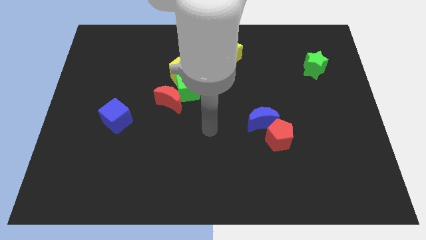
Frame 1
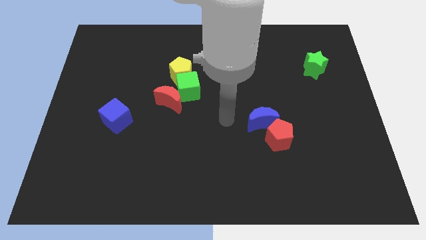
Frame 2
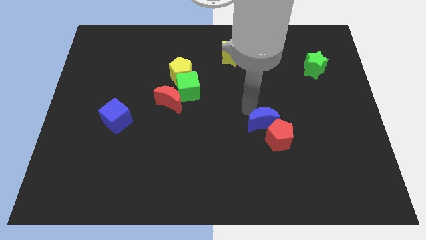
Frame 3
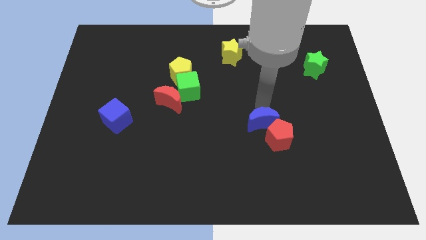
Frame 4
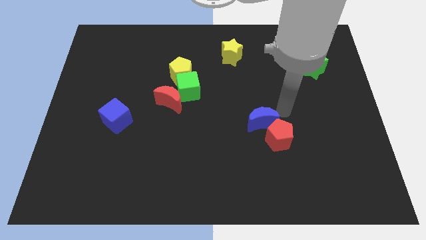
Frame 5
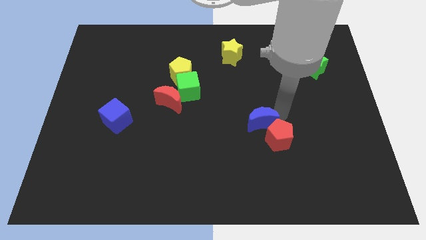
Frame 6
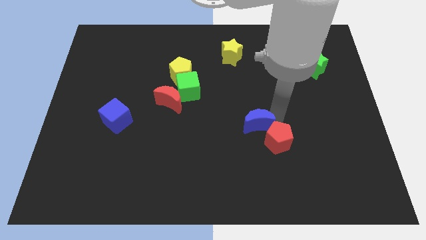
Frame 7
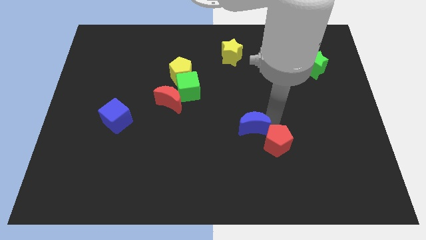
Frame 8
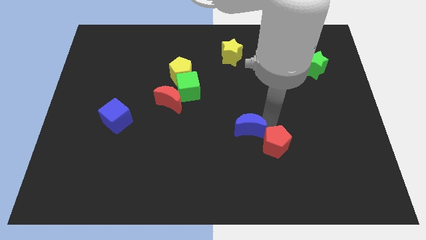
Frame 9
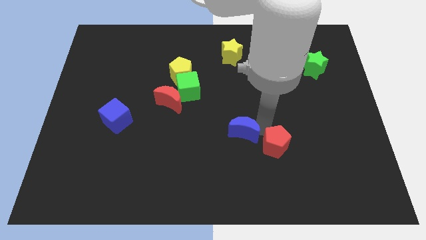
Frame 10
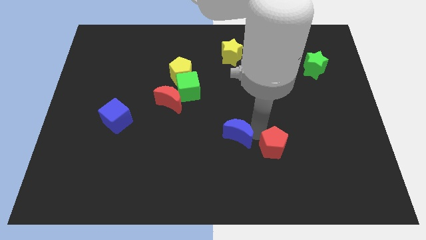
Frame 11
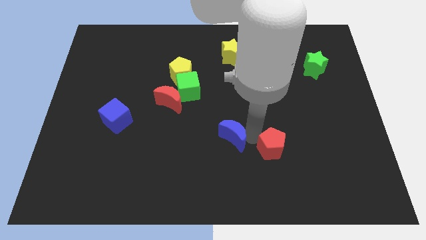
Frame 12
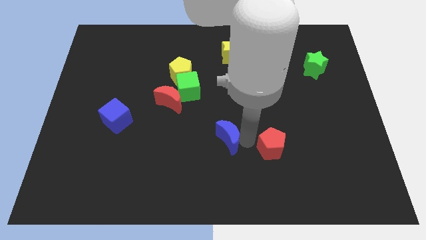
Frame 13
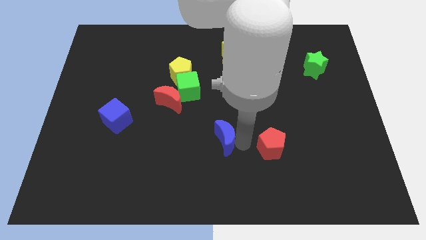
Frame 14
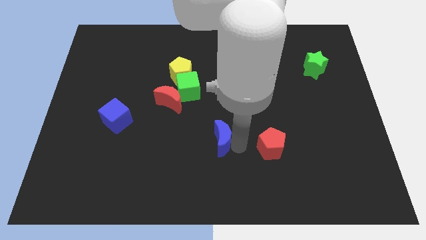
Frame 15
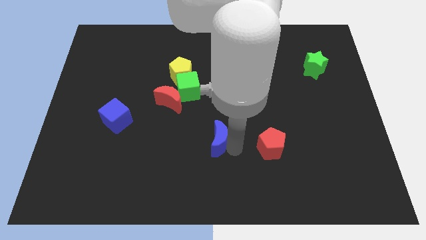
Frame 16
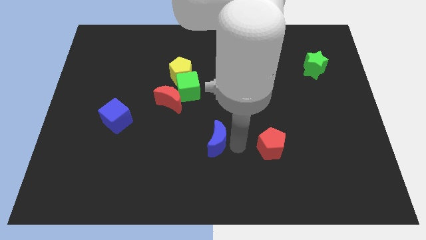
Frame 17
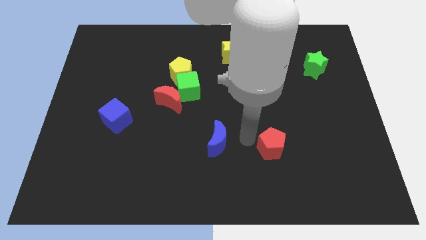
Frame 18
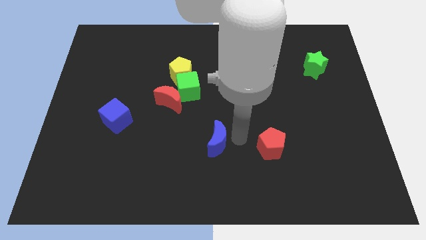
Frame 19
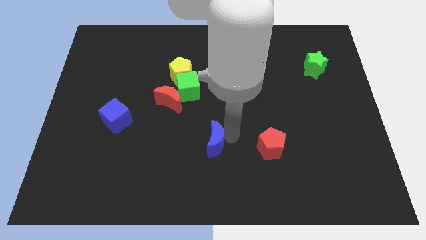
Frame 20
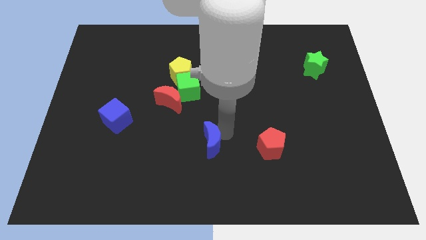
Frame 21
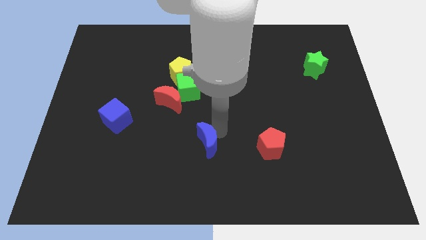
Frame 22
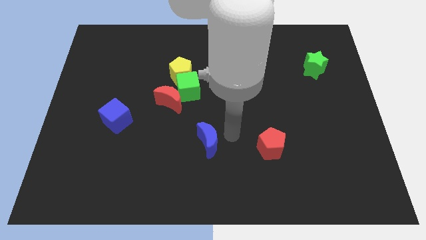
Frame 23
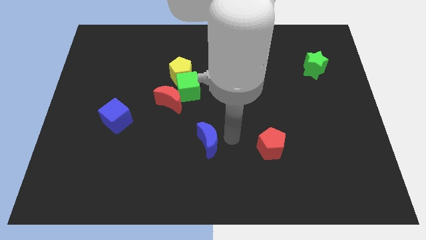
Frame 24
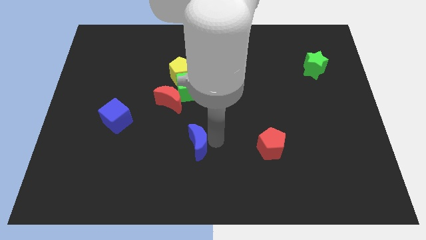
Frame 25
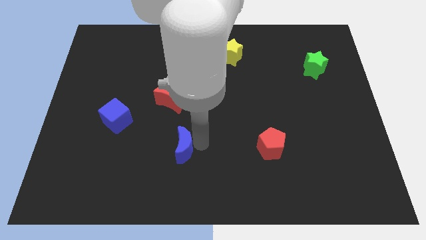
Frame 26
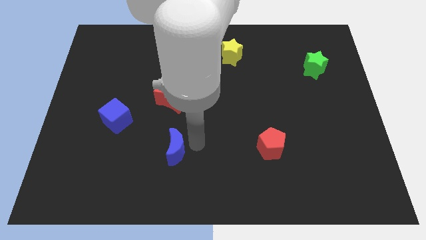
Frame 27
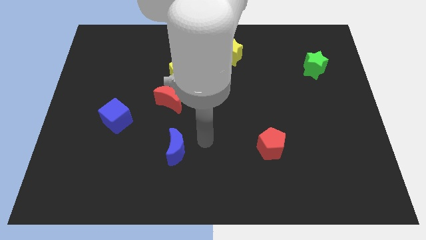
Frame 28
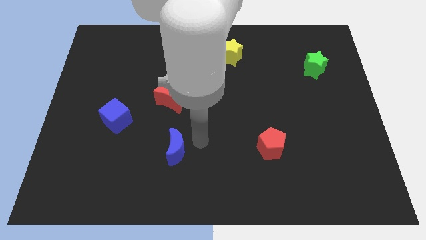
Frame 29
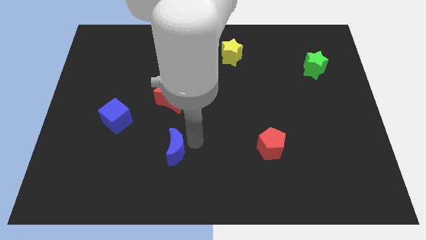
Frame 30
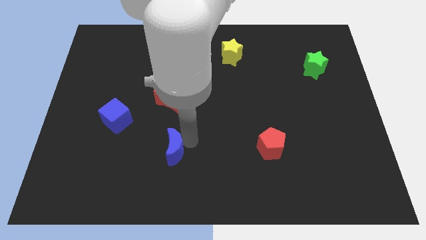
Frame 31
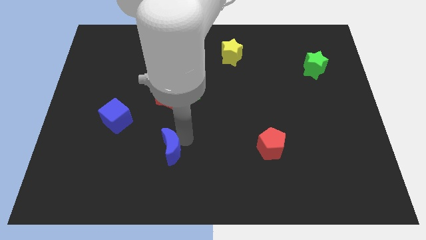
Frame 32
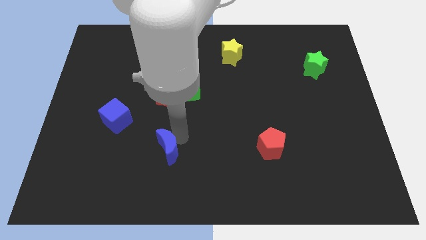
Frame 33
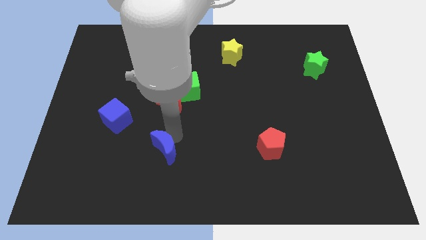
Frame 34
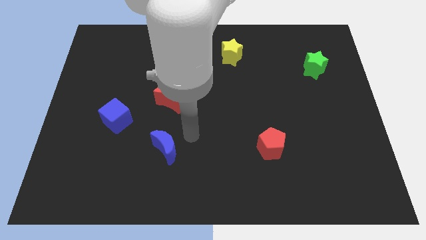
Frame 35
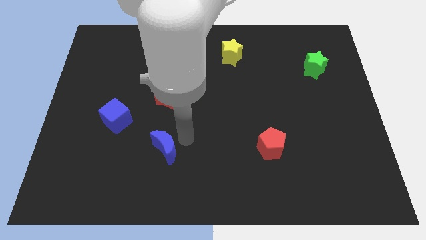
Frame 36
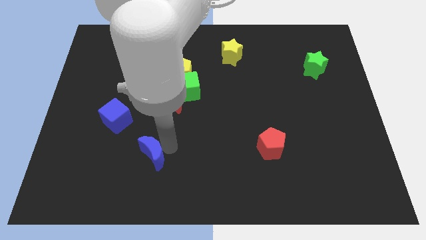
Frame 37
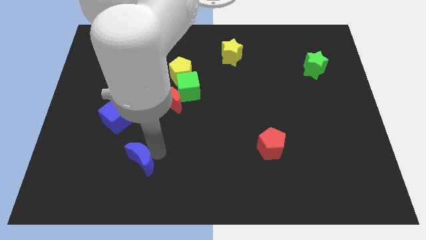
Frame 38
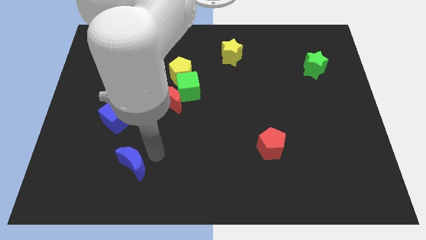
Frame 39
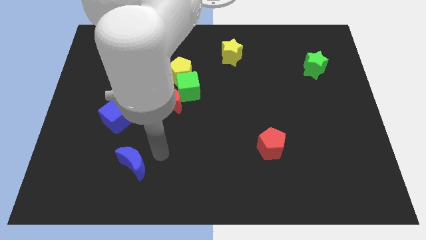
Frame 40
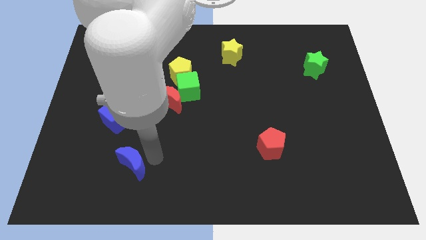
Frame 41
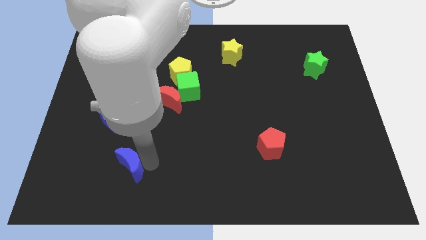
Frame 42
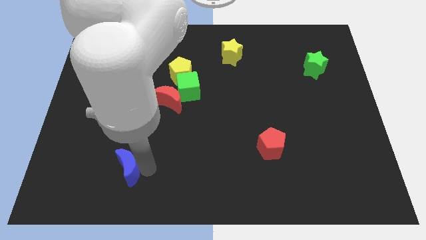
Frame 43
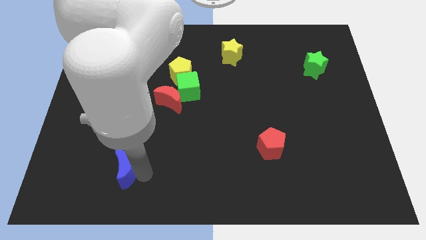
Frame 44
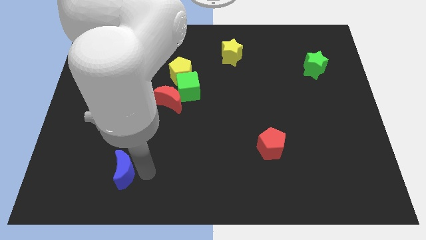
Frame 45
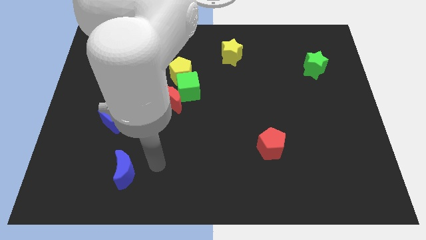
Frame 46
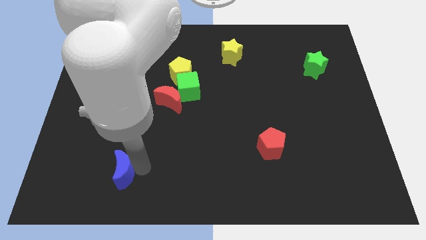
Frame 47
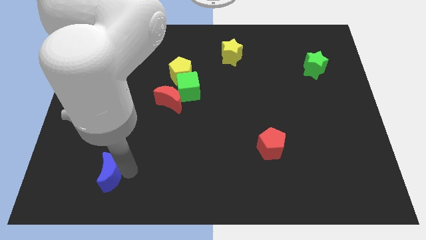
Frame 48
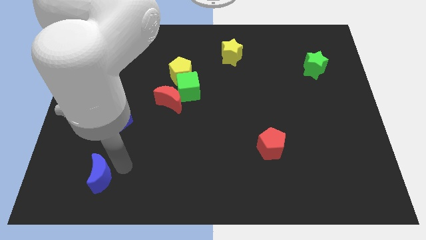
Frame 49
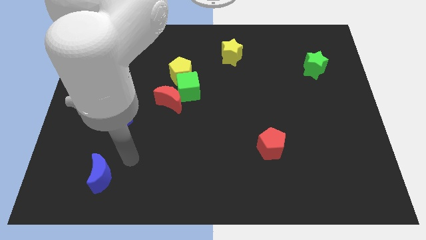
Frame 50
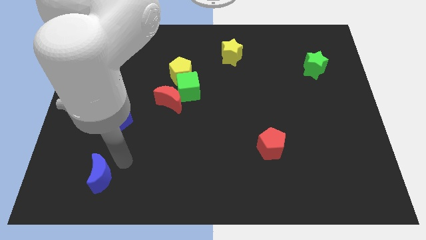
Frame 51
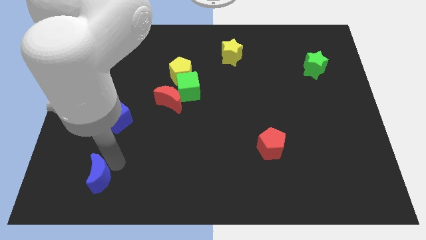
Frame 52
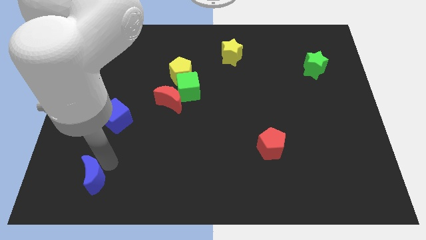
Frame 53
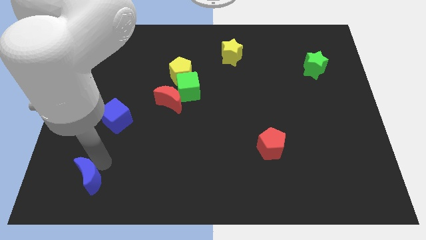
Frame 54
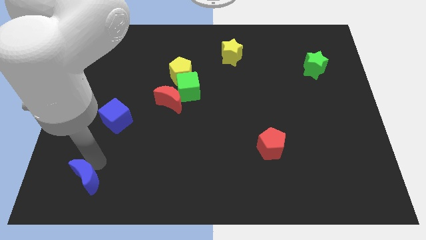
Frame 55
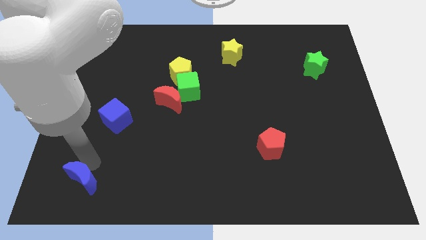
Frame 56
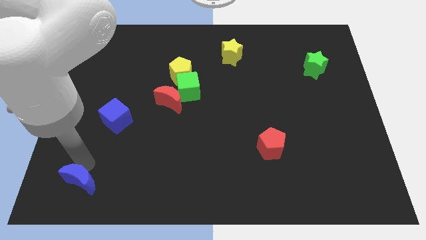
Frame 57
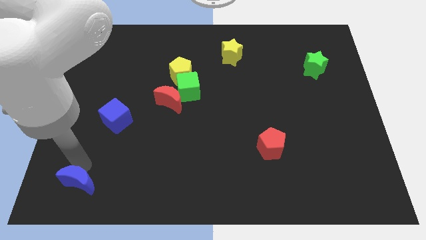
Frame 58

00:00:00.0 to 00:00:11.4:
slide the blue moon to the bottom left

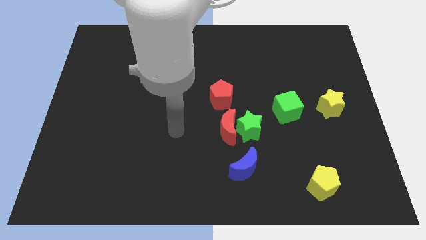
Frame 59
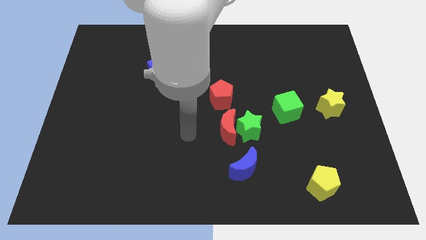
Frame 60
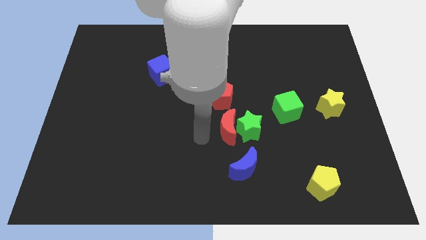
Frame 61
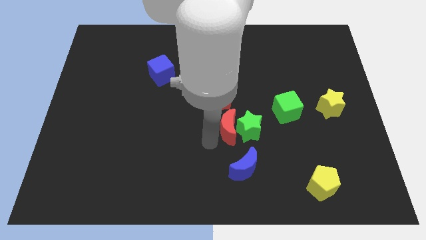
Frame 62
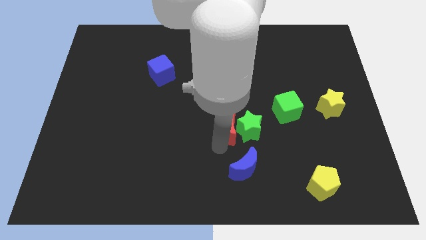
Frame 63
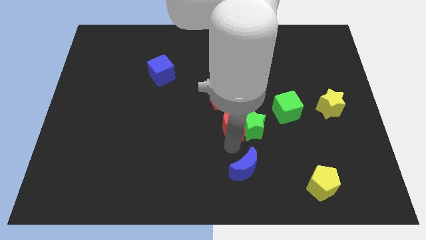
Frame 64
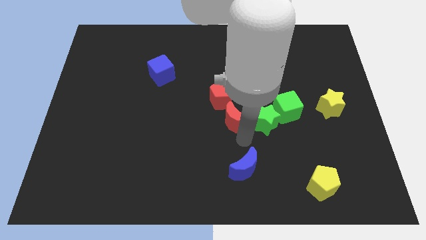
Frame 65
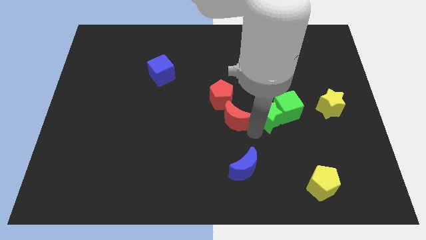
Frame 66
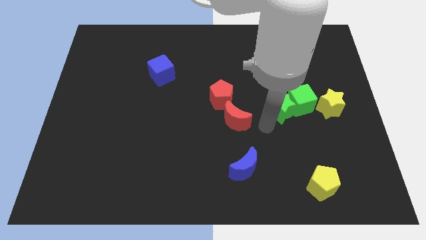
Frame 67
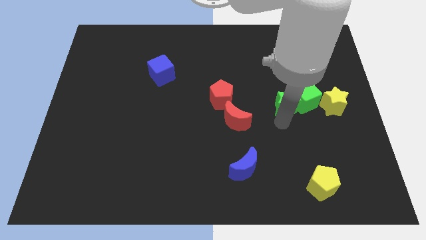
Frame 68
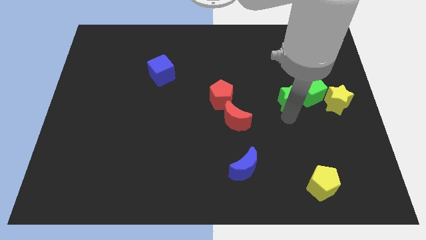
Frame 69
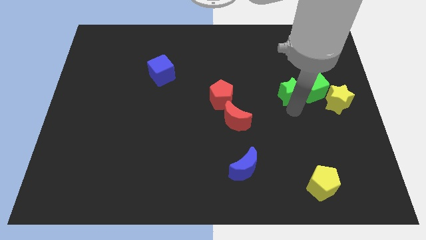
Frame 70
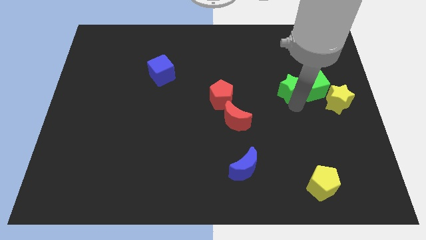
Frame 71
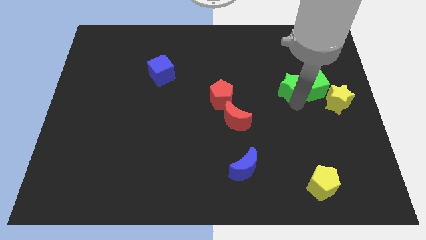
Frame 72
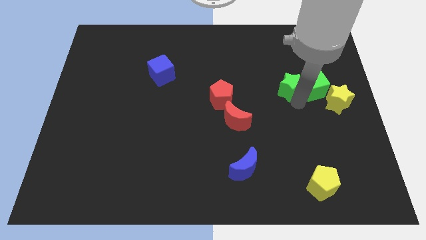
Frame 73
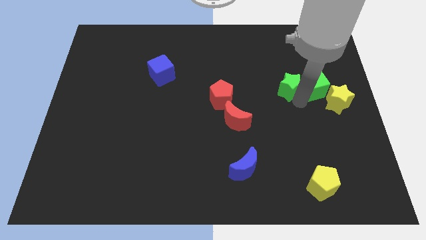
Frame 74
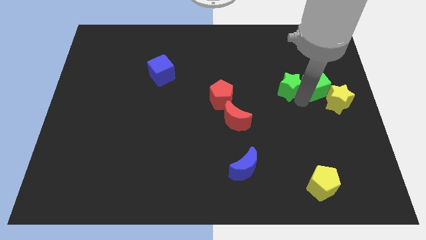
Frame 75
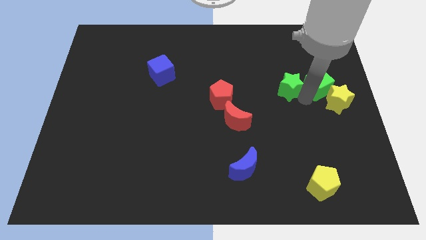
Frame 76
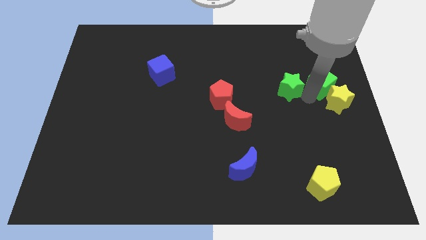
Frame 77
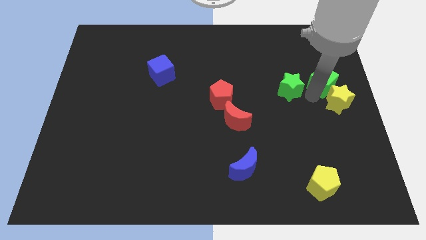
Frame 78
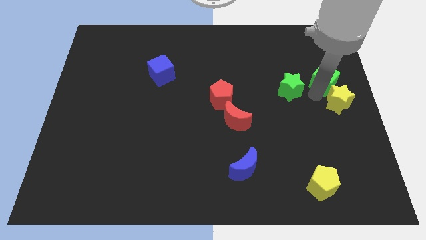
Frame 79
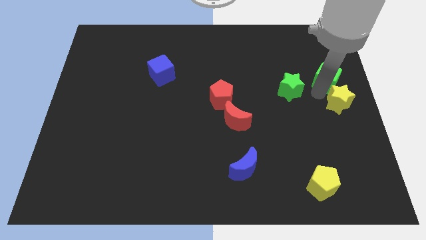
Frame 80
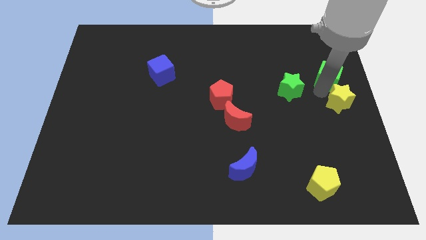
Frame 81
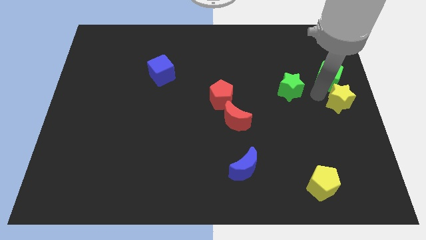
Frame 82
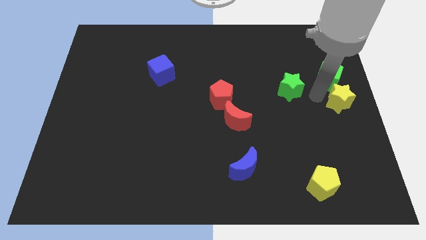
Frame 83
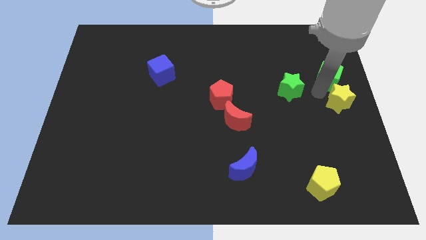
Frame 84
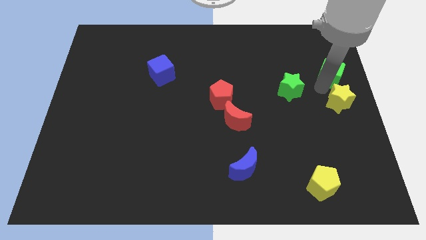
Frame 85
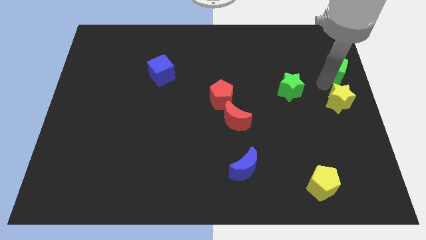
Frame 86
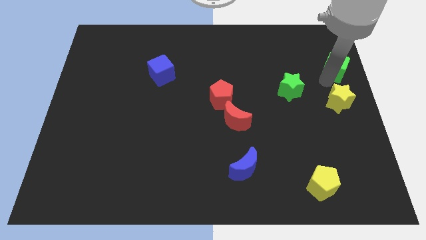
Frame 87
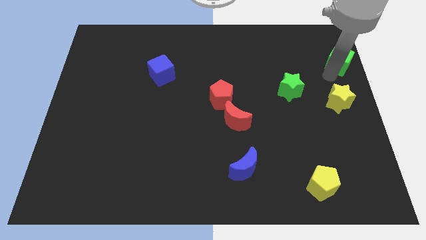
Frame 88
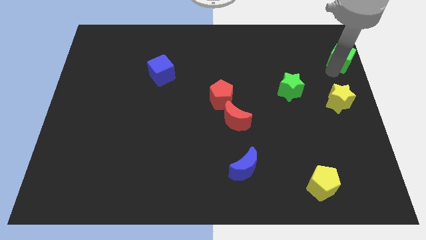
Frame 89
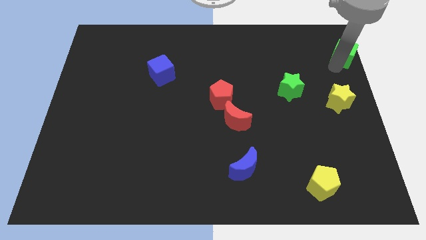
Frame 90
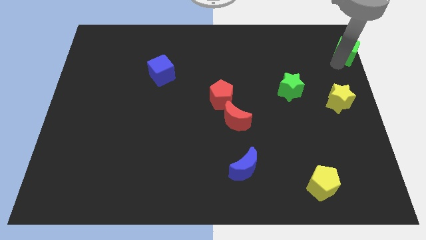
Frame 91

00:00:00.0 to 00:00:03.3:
put the green cube to the top right
